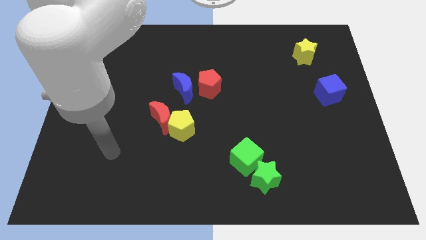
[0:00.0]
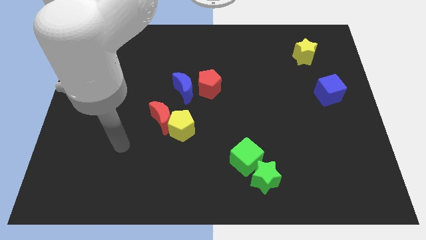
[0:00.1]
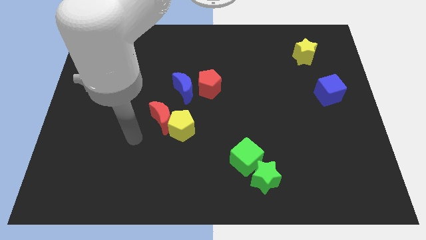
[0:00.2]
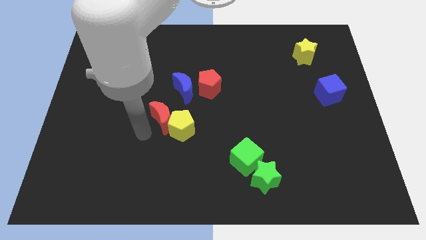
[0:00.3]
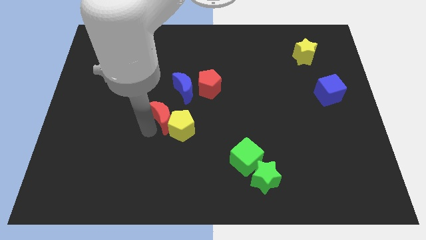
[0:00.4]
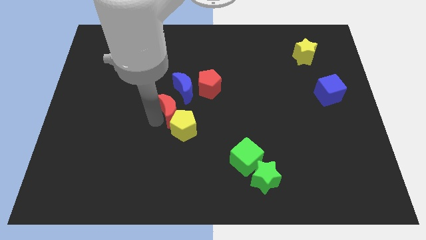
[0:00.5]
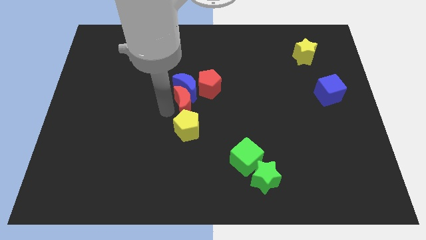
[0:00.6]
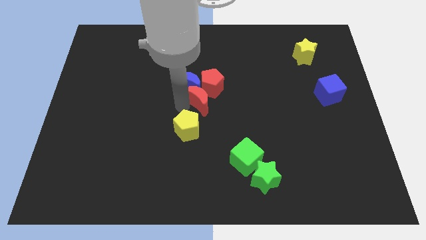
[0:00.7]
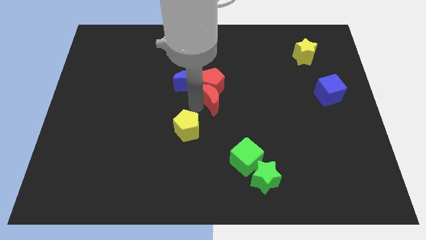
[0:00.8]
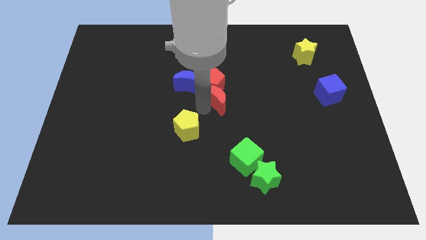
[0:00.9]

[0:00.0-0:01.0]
move the yellow pentagon away from the red moon

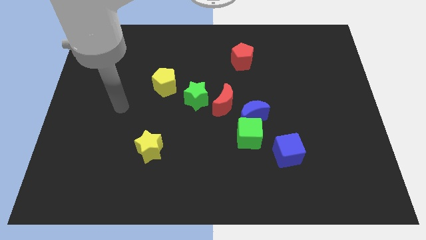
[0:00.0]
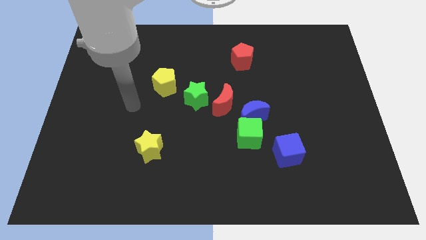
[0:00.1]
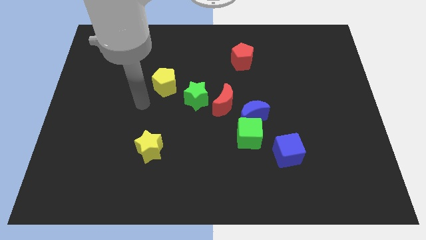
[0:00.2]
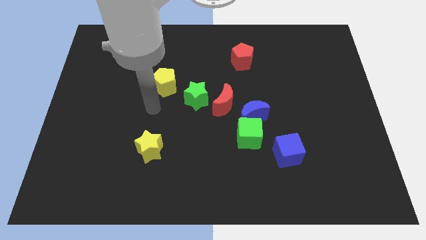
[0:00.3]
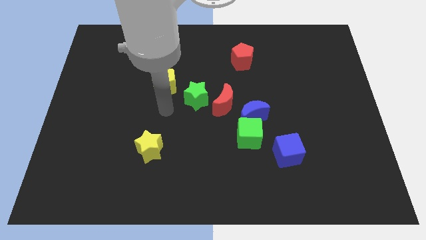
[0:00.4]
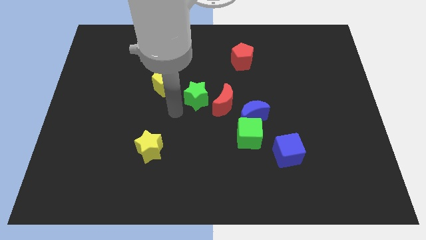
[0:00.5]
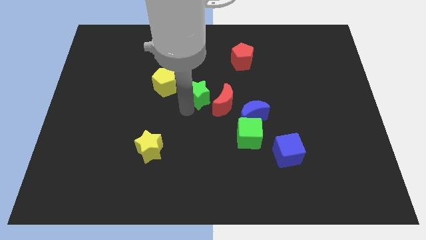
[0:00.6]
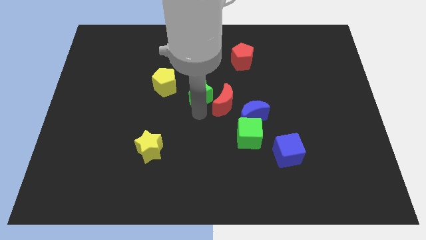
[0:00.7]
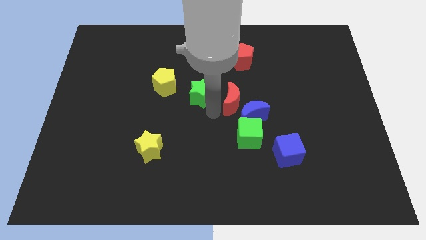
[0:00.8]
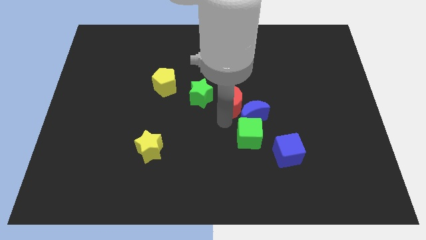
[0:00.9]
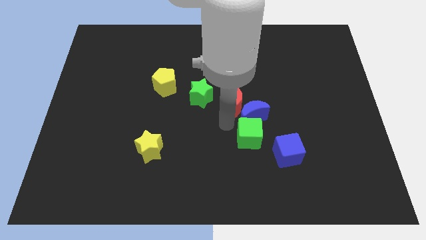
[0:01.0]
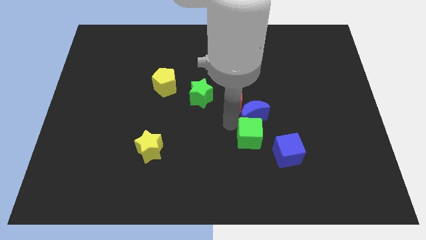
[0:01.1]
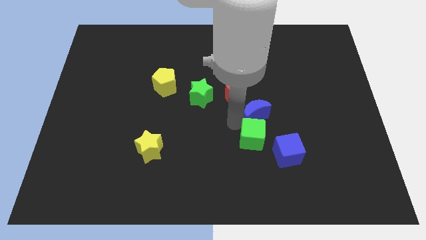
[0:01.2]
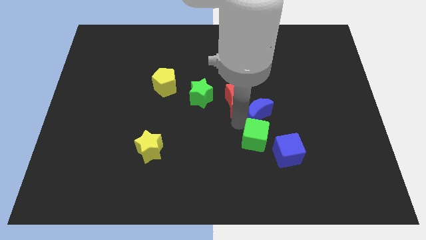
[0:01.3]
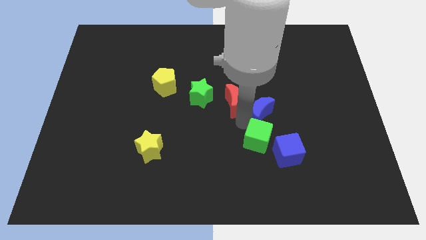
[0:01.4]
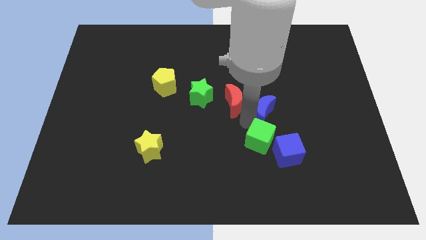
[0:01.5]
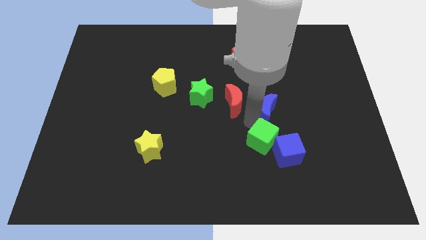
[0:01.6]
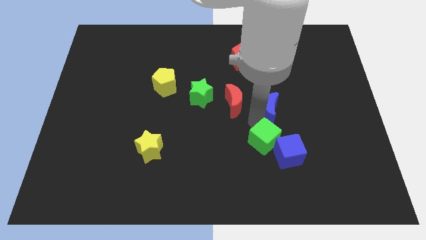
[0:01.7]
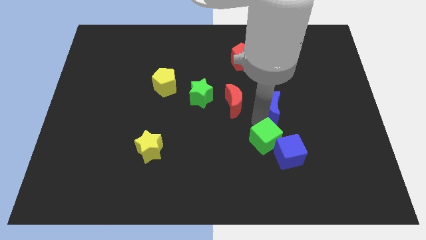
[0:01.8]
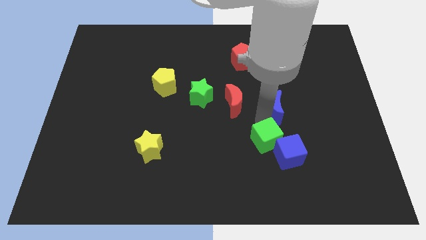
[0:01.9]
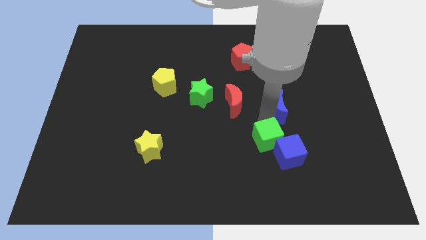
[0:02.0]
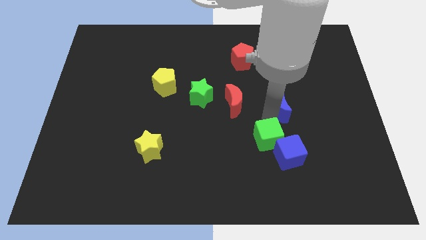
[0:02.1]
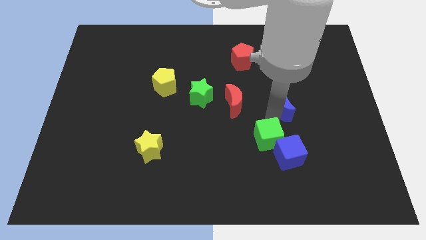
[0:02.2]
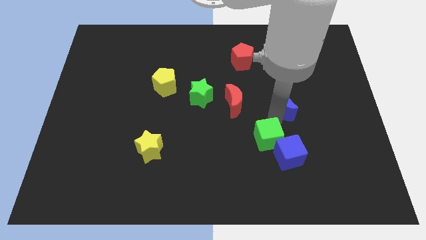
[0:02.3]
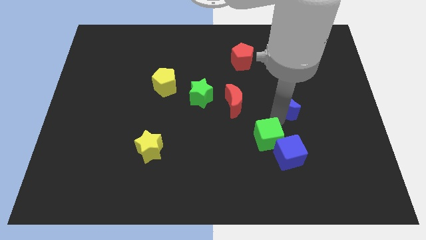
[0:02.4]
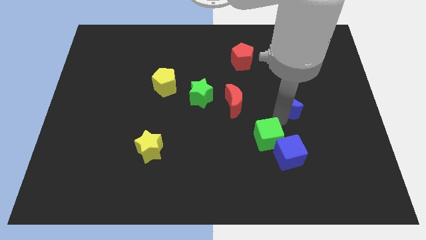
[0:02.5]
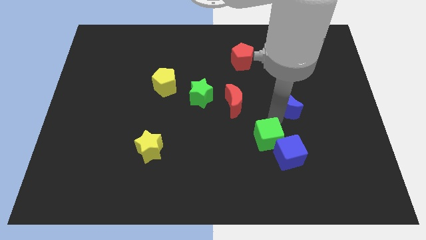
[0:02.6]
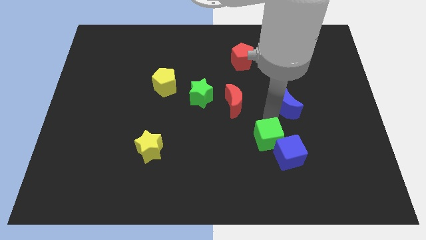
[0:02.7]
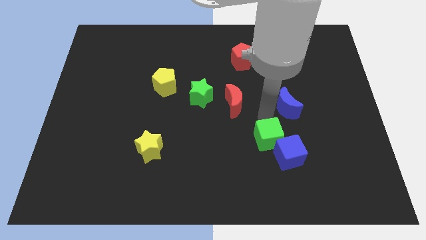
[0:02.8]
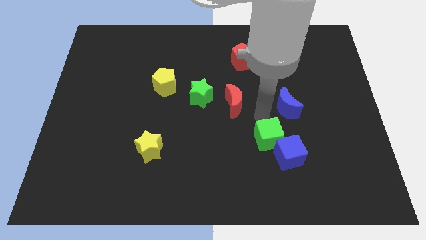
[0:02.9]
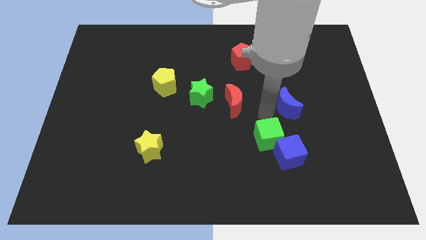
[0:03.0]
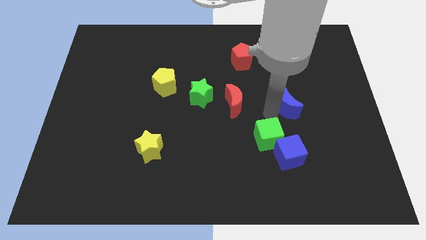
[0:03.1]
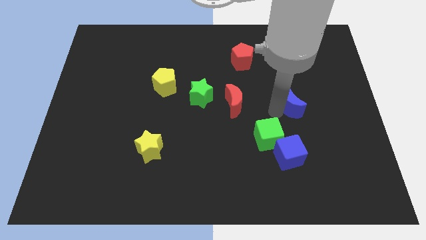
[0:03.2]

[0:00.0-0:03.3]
separate the blue moon from the green cube and red moon

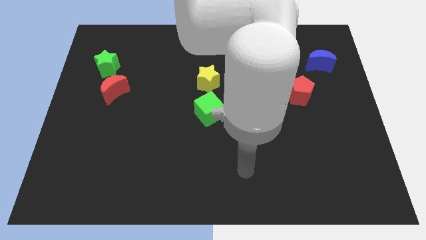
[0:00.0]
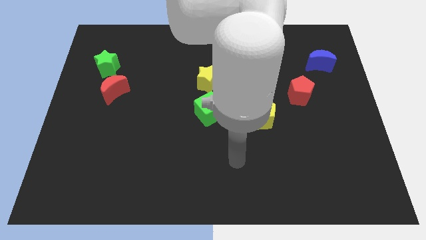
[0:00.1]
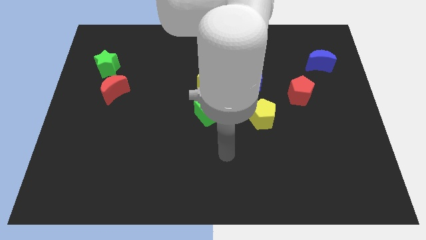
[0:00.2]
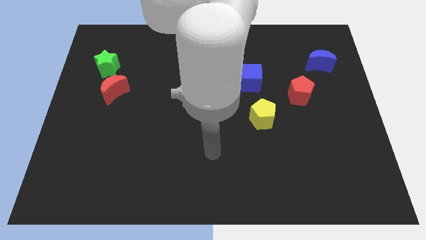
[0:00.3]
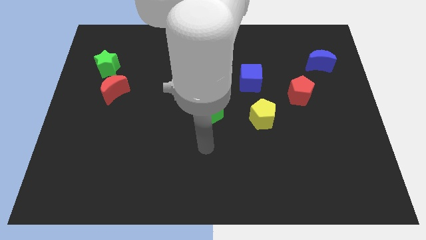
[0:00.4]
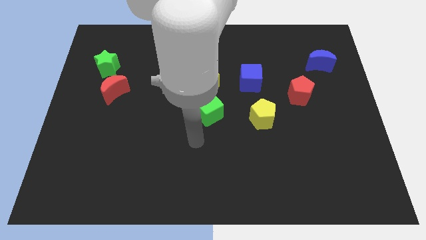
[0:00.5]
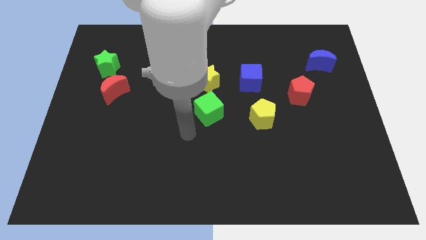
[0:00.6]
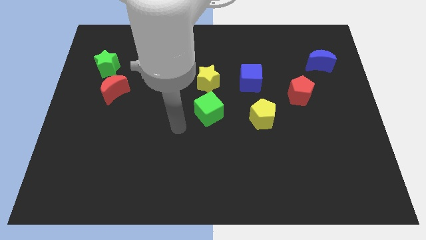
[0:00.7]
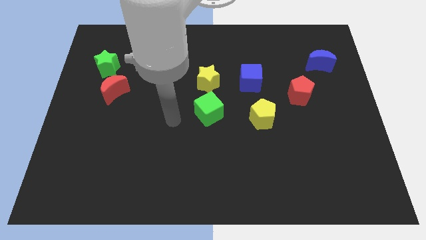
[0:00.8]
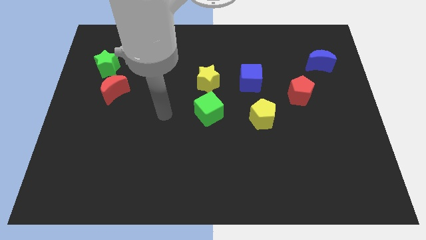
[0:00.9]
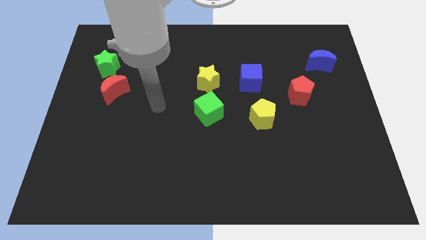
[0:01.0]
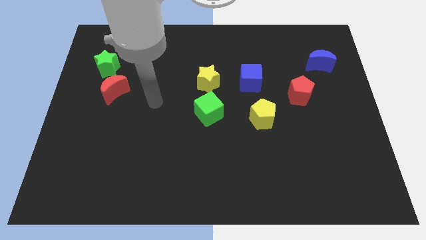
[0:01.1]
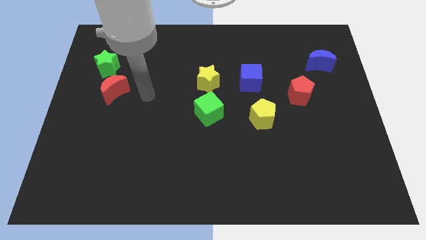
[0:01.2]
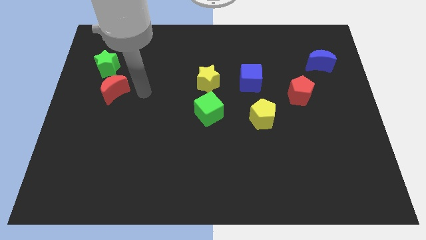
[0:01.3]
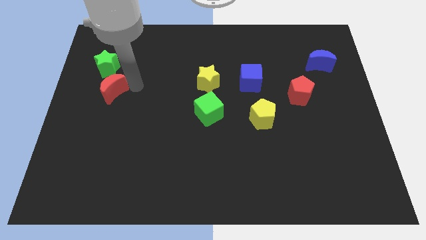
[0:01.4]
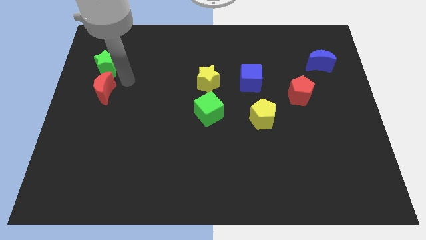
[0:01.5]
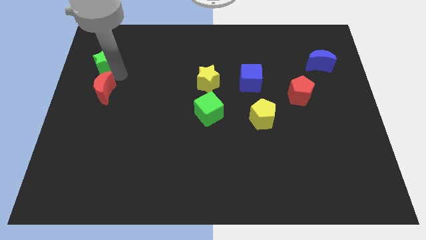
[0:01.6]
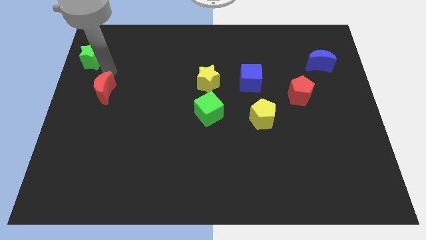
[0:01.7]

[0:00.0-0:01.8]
move the red moon away from the green star

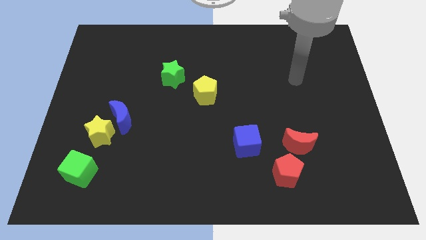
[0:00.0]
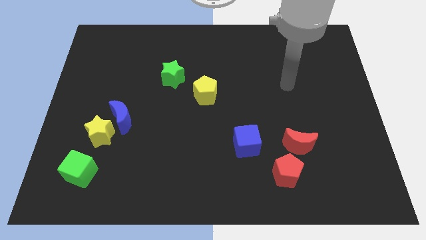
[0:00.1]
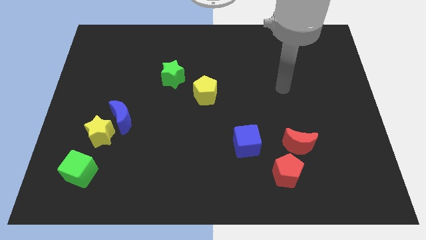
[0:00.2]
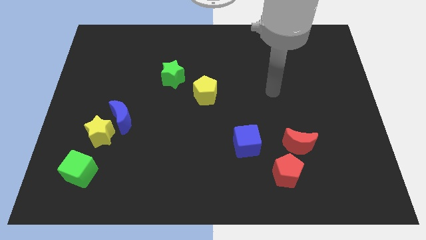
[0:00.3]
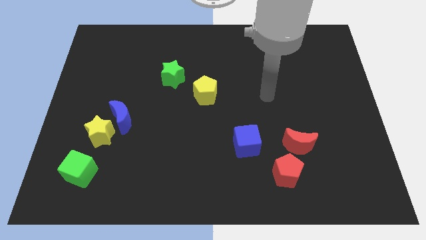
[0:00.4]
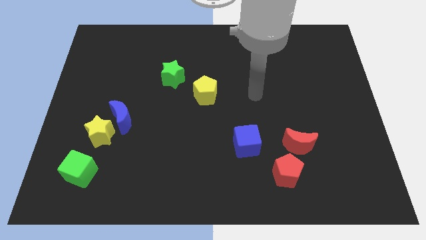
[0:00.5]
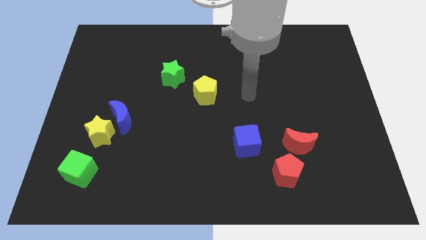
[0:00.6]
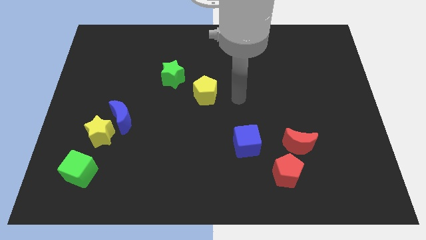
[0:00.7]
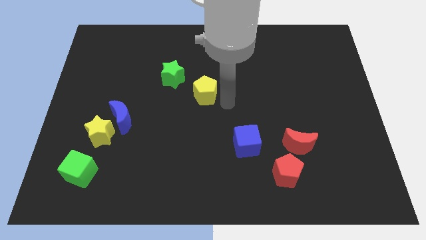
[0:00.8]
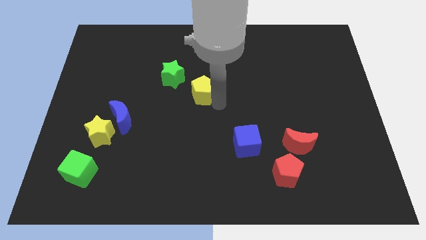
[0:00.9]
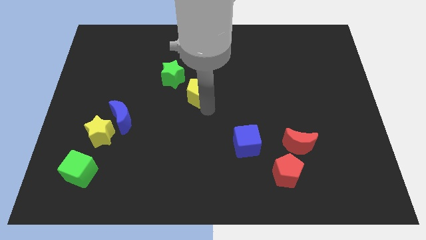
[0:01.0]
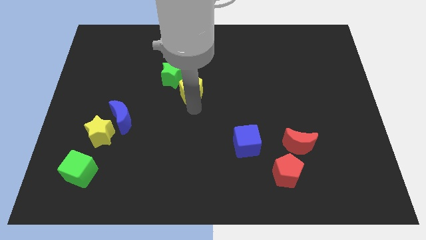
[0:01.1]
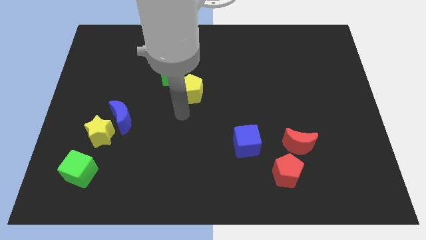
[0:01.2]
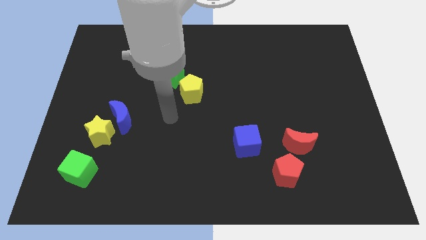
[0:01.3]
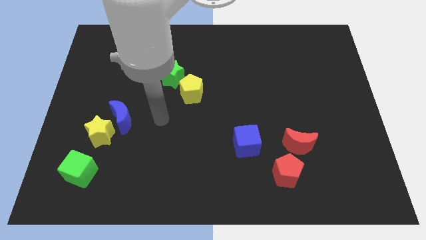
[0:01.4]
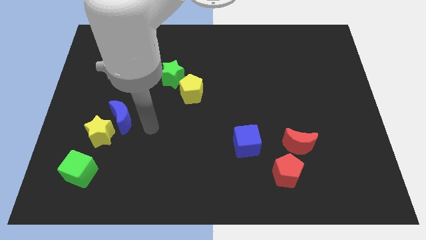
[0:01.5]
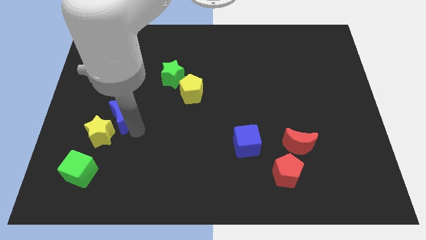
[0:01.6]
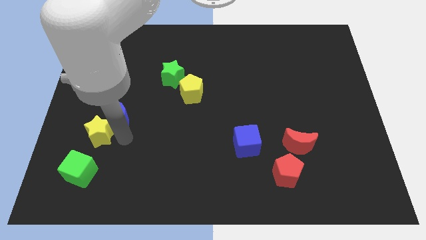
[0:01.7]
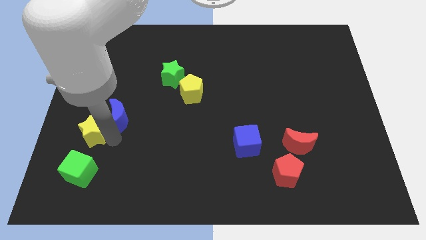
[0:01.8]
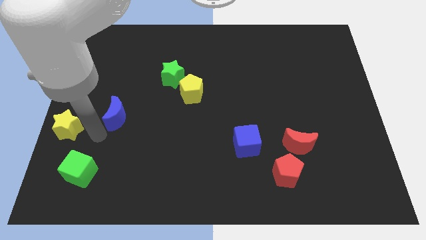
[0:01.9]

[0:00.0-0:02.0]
move the blue moon away from the yellow star

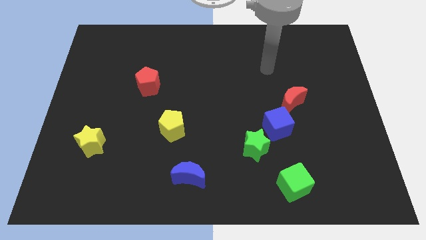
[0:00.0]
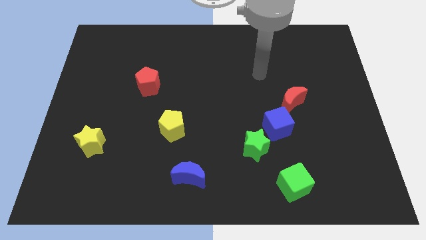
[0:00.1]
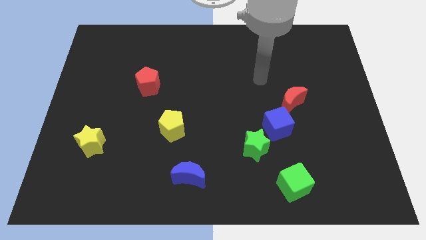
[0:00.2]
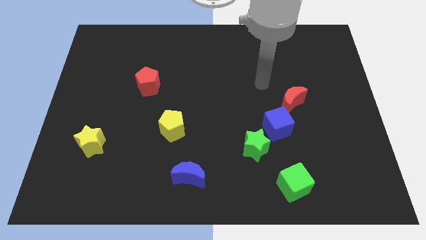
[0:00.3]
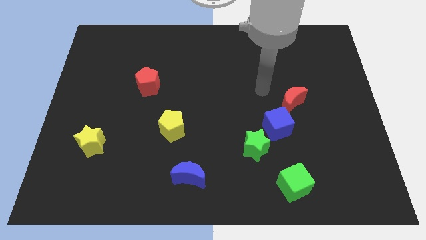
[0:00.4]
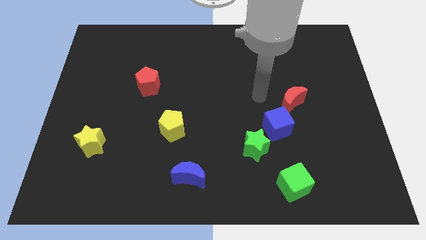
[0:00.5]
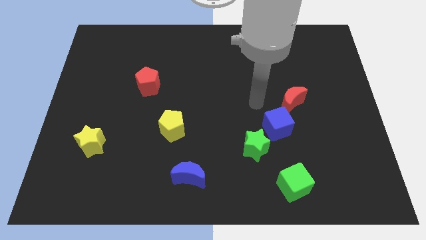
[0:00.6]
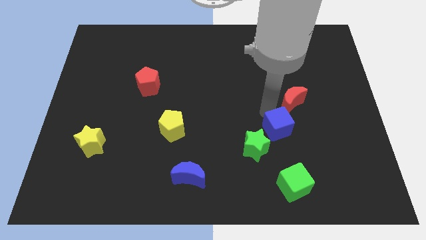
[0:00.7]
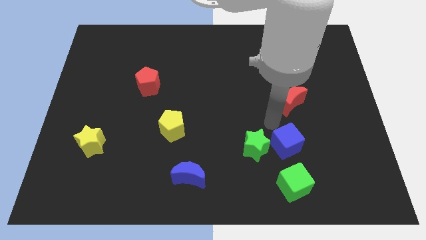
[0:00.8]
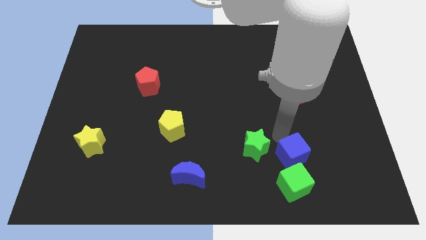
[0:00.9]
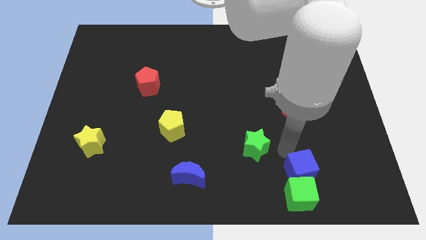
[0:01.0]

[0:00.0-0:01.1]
pull the green star apart from the blue cube

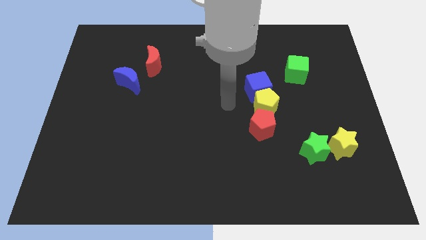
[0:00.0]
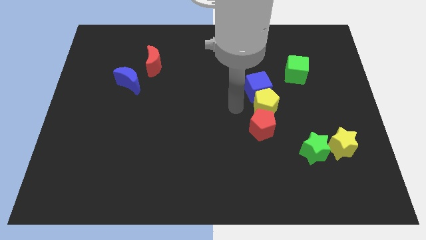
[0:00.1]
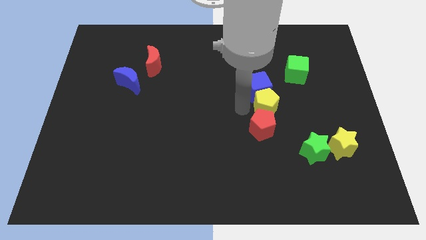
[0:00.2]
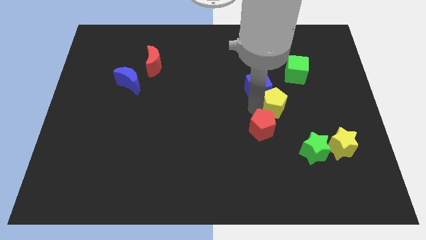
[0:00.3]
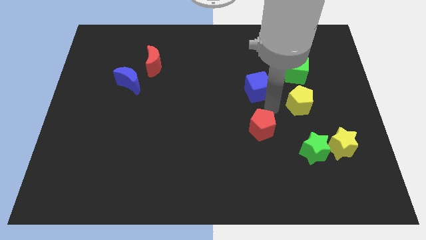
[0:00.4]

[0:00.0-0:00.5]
move the blue cube away from the yellow pentagon
